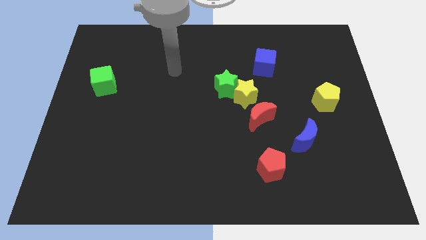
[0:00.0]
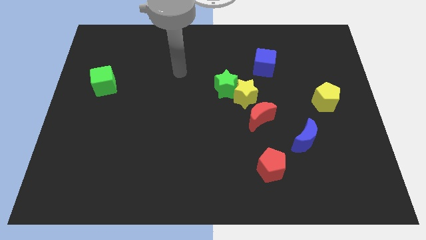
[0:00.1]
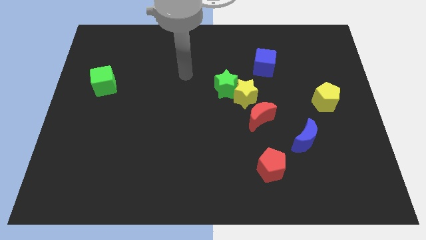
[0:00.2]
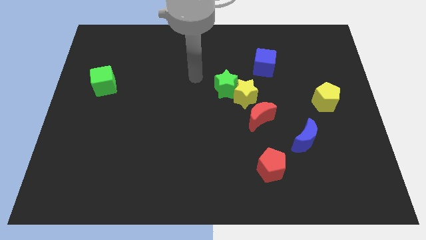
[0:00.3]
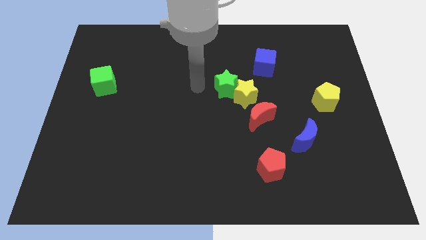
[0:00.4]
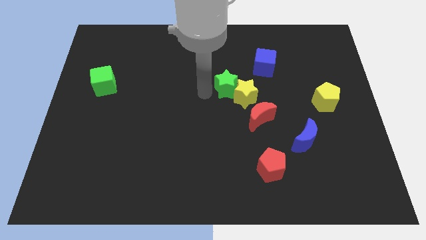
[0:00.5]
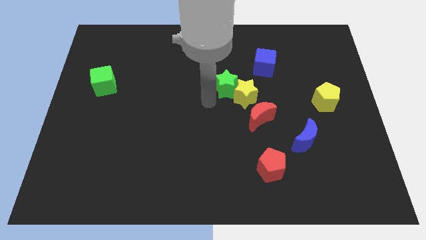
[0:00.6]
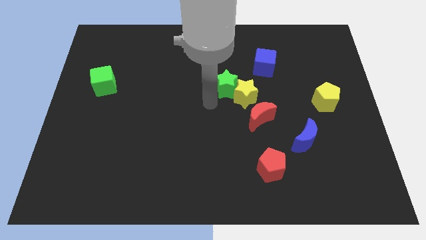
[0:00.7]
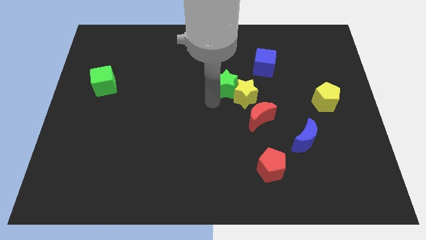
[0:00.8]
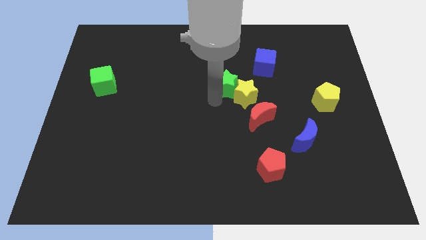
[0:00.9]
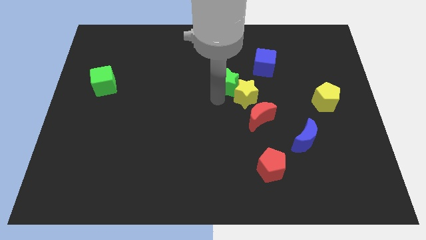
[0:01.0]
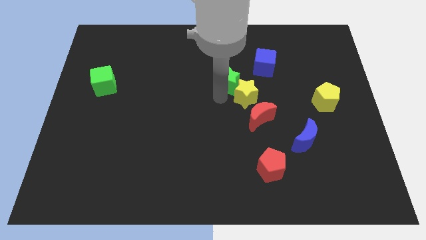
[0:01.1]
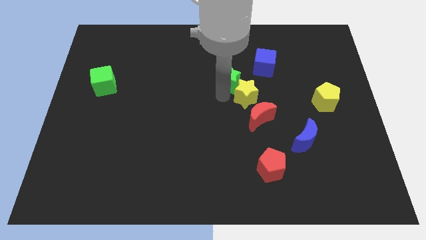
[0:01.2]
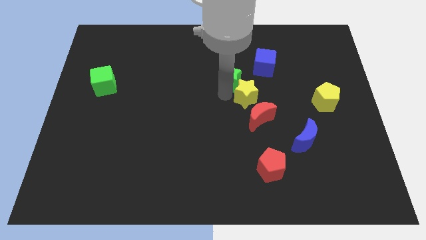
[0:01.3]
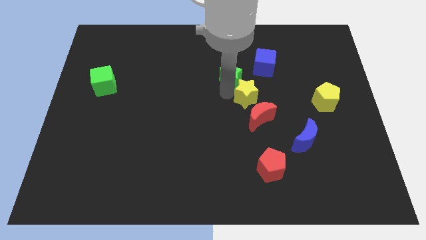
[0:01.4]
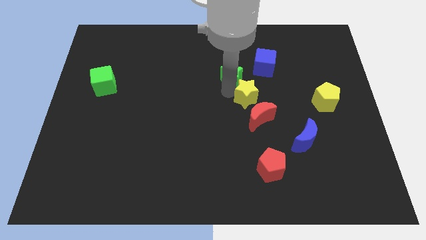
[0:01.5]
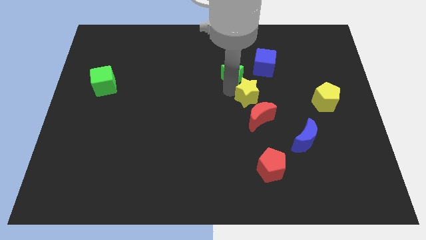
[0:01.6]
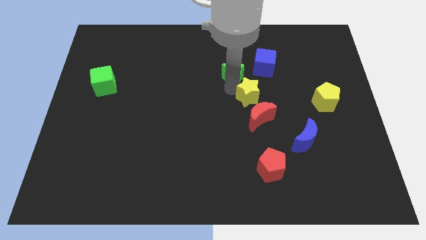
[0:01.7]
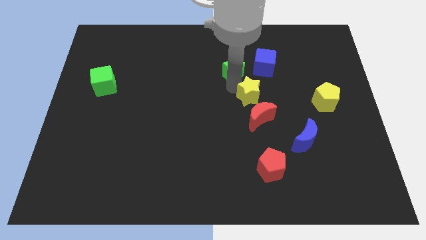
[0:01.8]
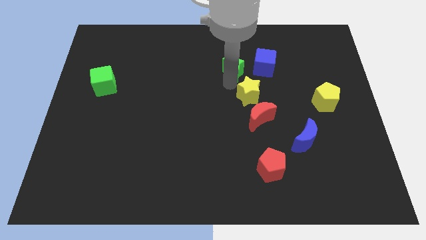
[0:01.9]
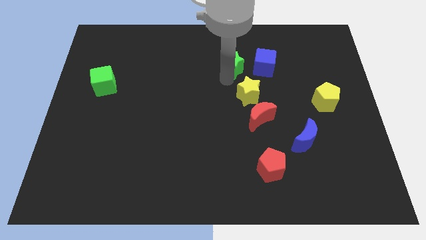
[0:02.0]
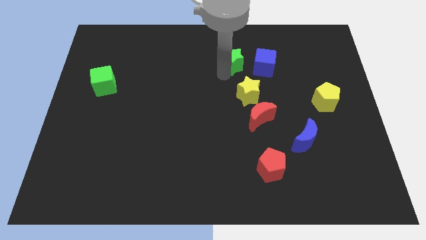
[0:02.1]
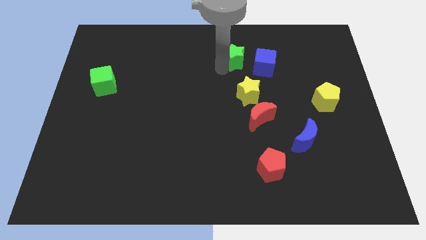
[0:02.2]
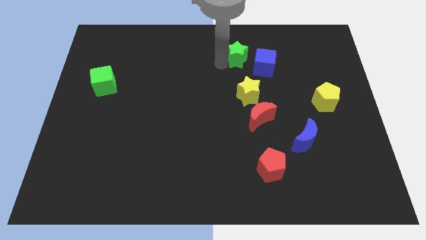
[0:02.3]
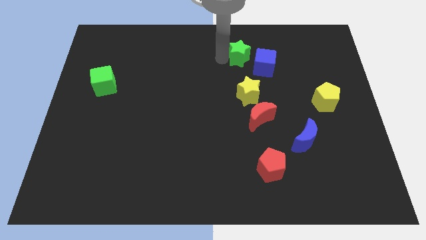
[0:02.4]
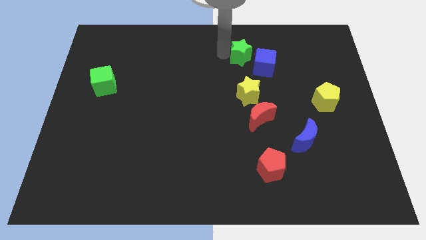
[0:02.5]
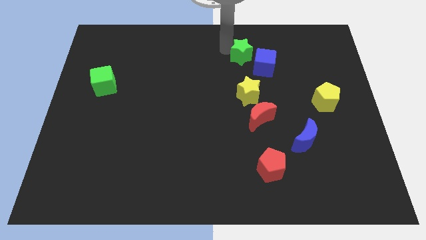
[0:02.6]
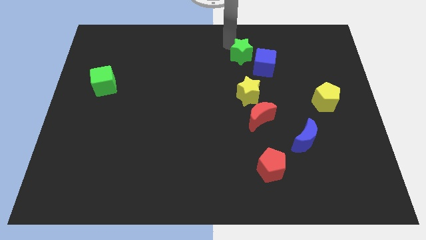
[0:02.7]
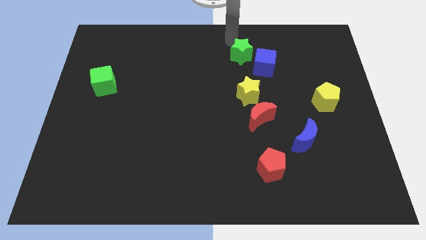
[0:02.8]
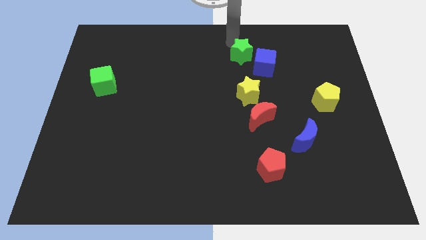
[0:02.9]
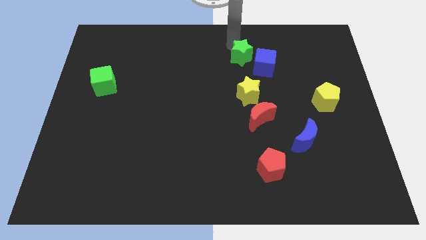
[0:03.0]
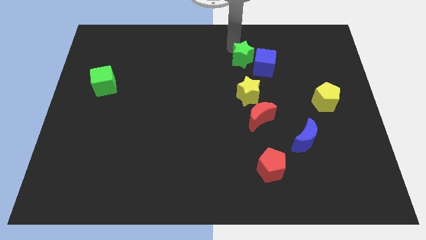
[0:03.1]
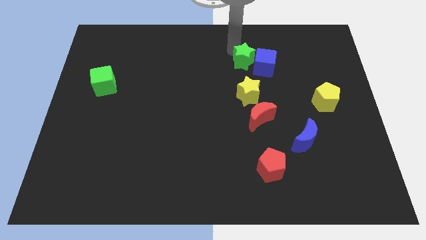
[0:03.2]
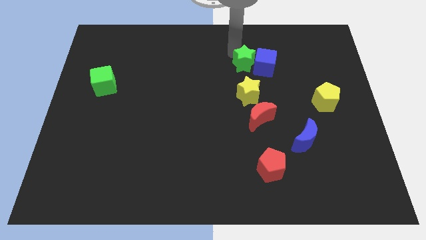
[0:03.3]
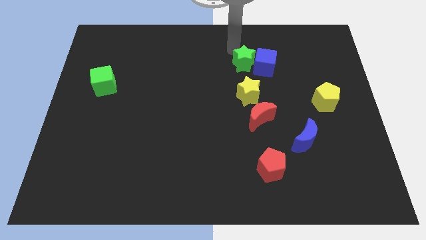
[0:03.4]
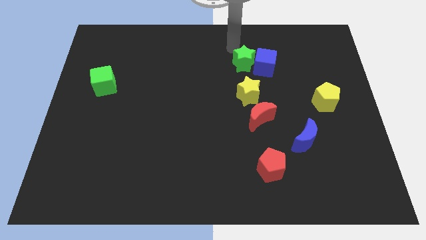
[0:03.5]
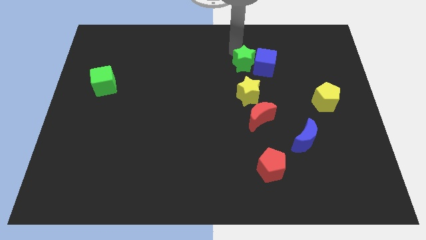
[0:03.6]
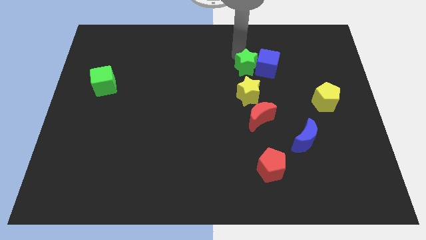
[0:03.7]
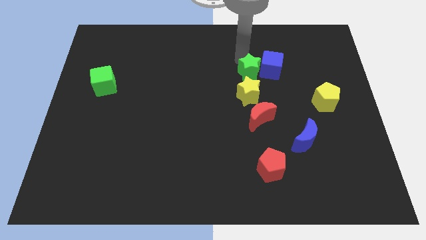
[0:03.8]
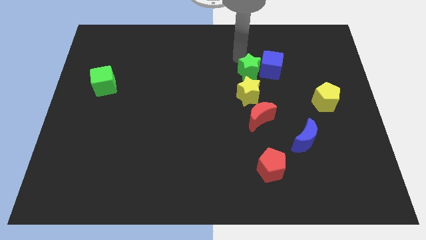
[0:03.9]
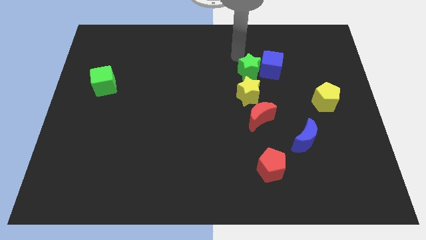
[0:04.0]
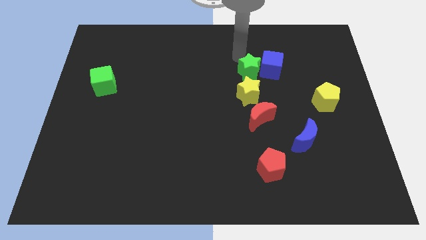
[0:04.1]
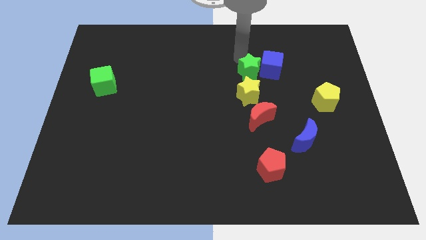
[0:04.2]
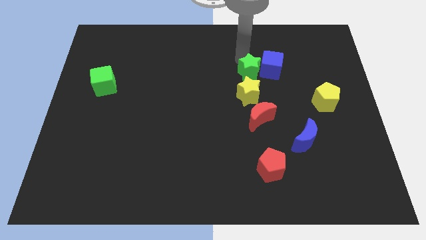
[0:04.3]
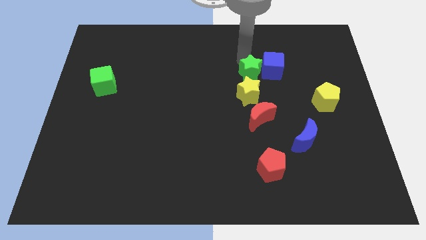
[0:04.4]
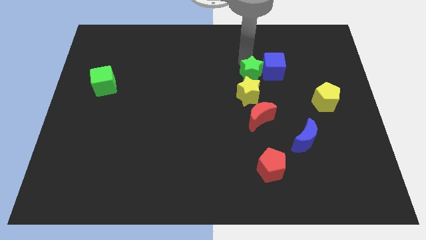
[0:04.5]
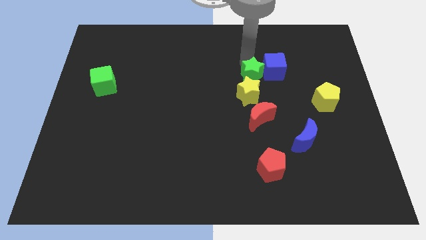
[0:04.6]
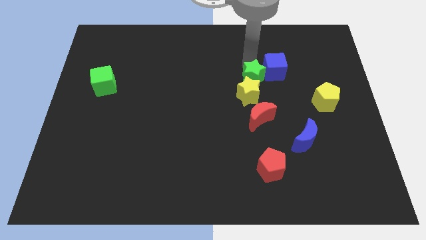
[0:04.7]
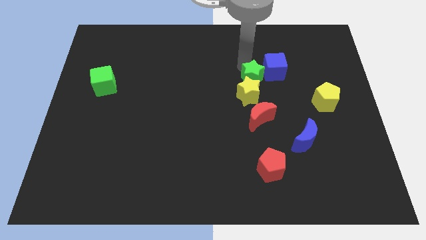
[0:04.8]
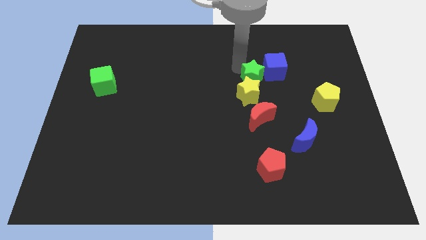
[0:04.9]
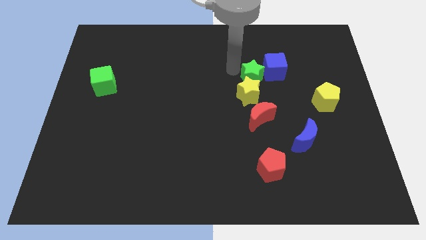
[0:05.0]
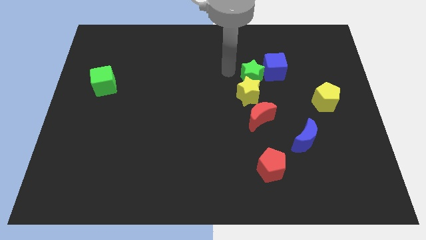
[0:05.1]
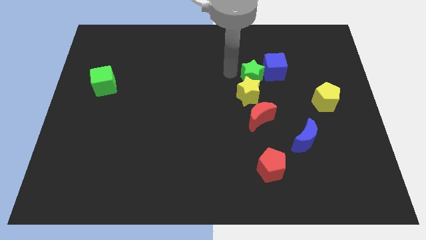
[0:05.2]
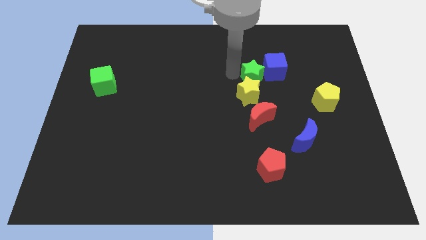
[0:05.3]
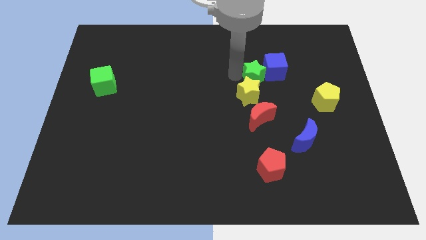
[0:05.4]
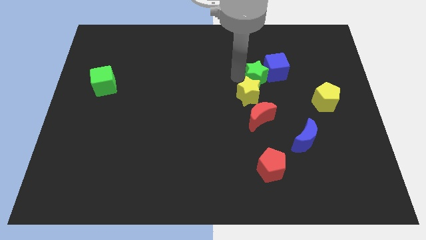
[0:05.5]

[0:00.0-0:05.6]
slightly push the green star to the right

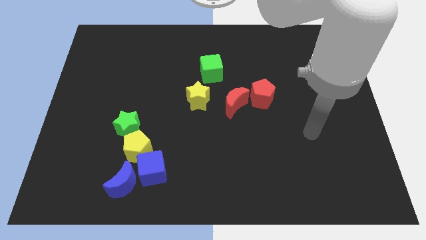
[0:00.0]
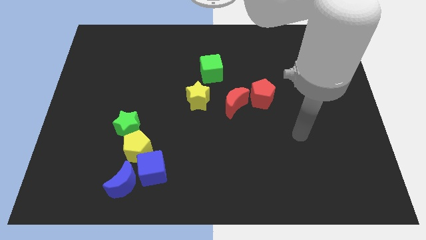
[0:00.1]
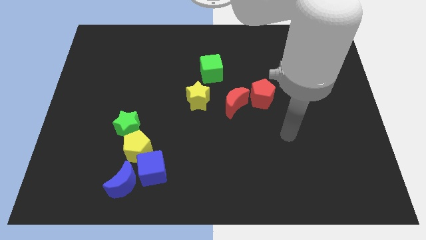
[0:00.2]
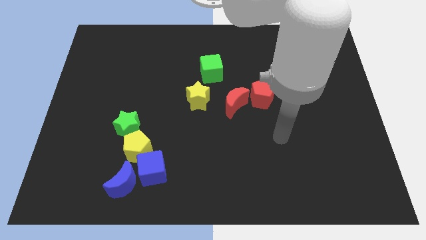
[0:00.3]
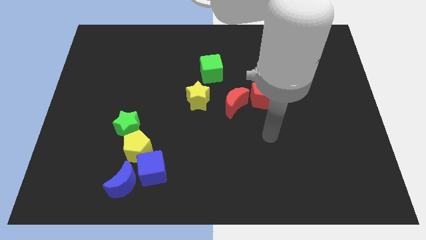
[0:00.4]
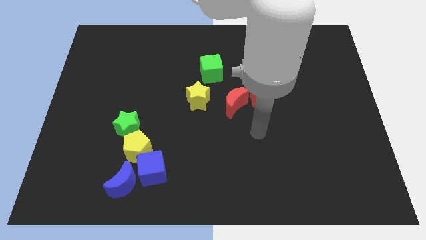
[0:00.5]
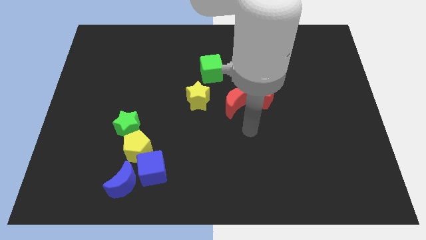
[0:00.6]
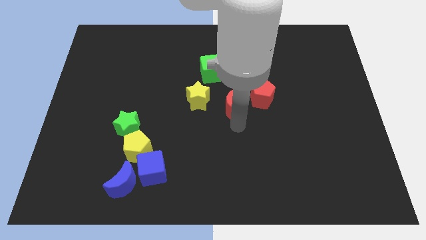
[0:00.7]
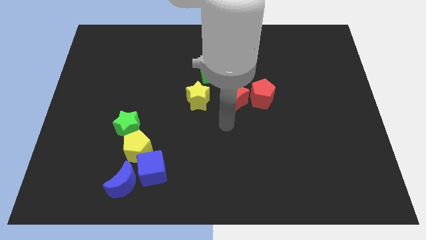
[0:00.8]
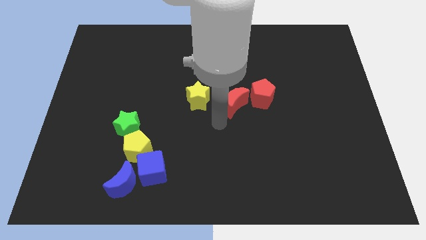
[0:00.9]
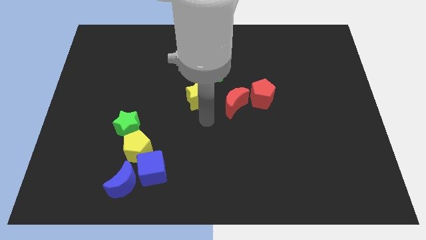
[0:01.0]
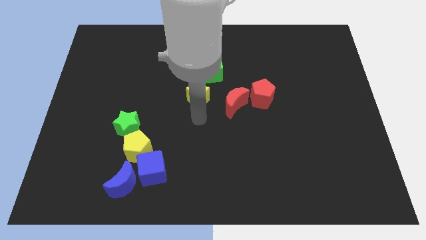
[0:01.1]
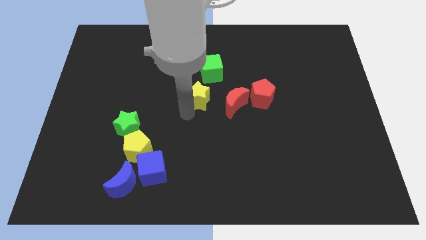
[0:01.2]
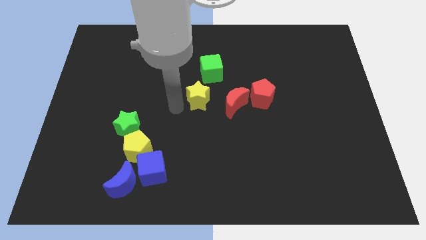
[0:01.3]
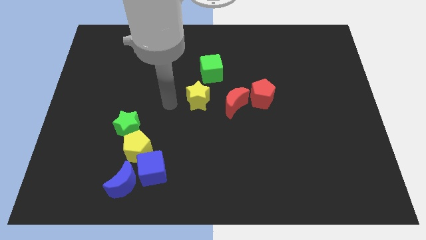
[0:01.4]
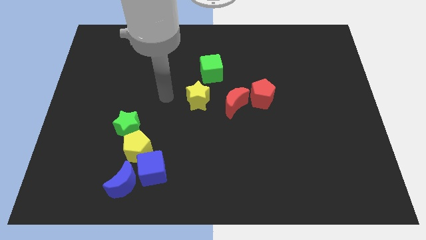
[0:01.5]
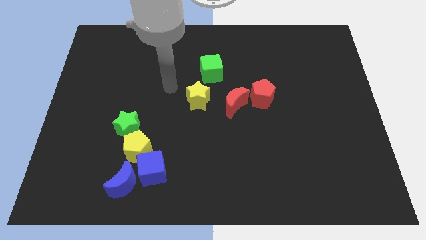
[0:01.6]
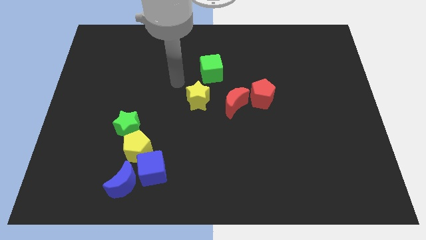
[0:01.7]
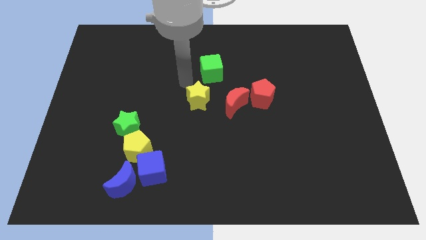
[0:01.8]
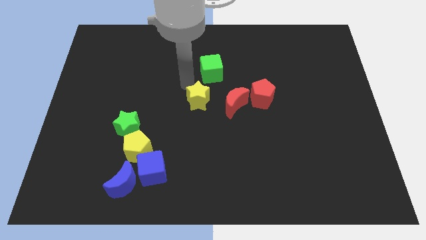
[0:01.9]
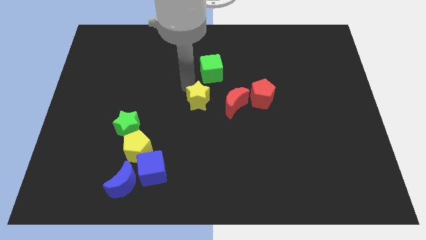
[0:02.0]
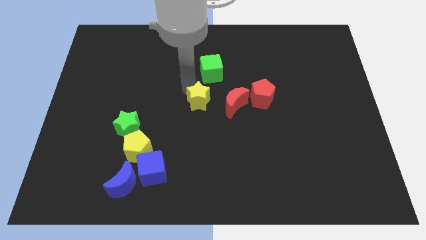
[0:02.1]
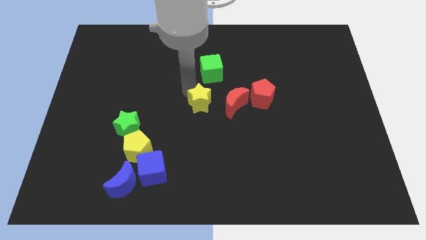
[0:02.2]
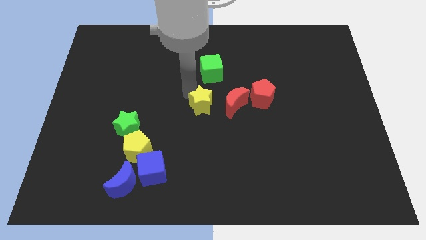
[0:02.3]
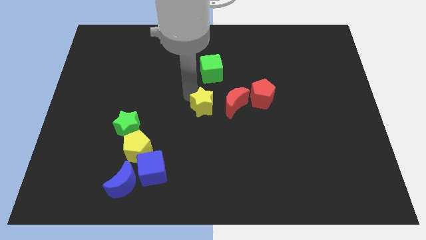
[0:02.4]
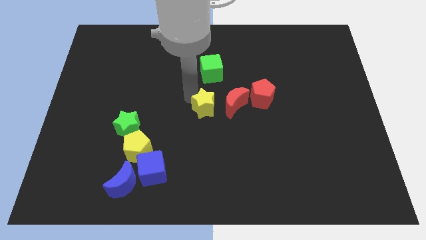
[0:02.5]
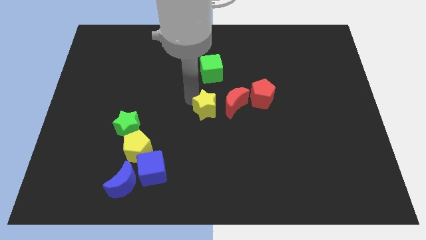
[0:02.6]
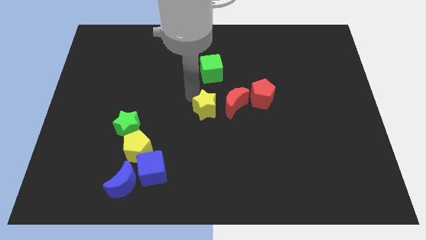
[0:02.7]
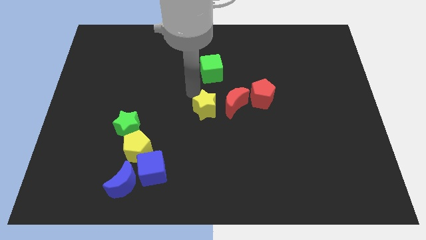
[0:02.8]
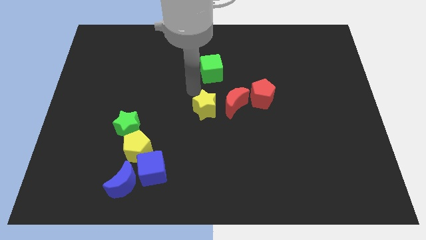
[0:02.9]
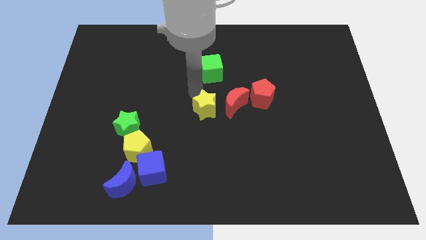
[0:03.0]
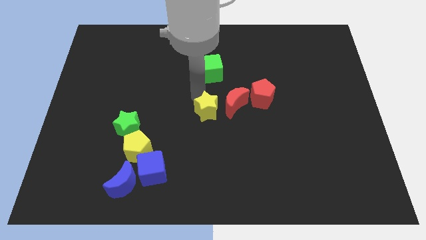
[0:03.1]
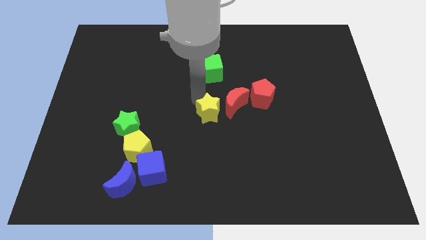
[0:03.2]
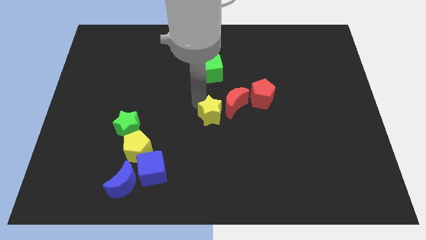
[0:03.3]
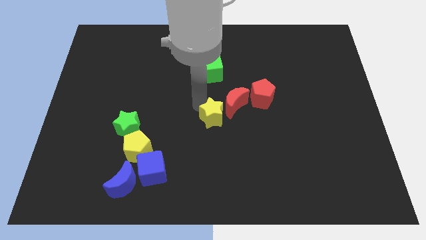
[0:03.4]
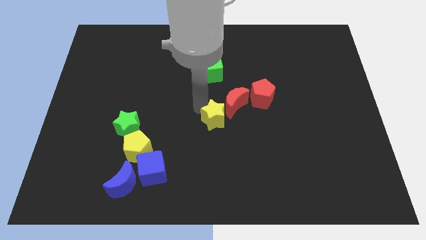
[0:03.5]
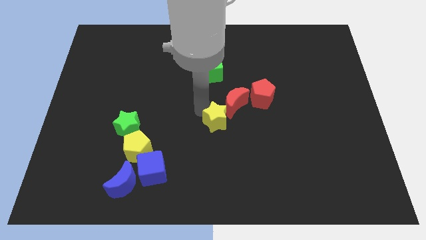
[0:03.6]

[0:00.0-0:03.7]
push the yellow star a little downwards and to the right diagonally
